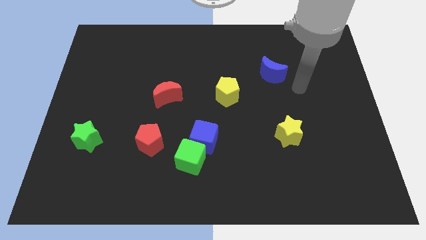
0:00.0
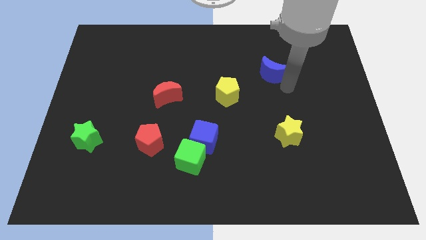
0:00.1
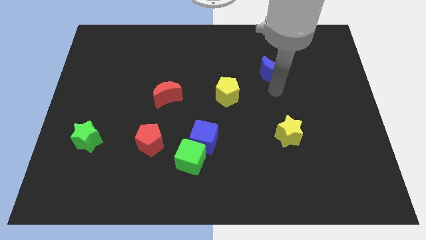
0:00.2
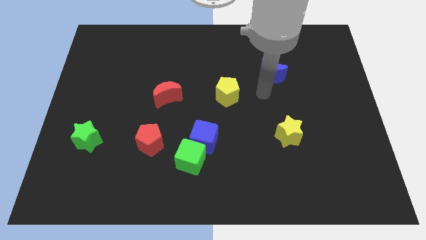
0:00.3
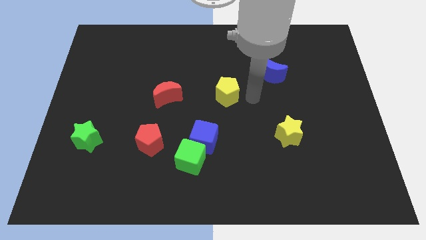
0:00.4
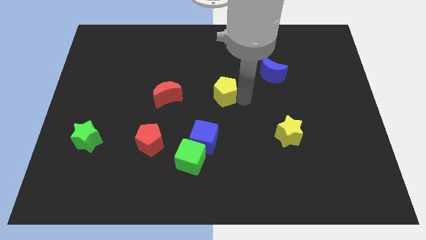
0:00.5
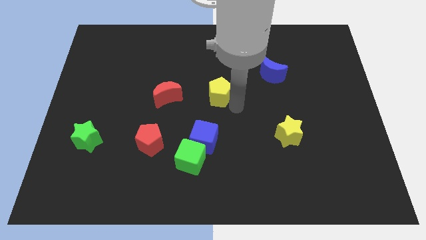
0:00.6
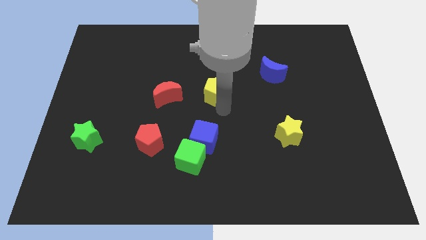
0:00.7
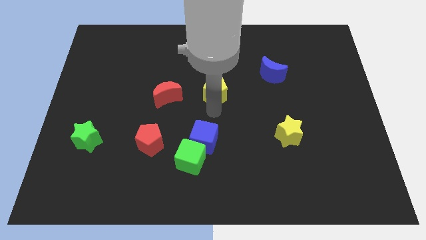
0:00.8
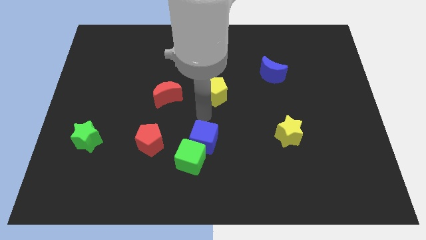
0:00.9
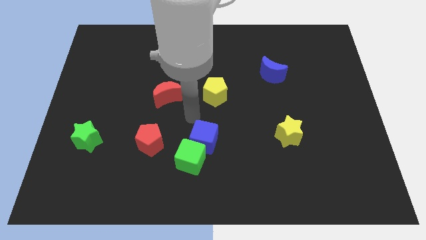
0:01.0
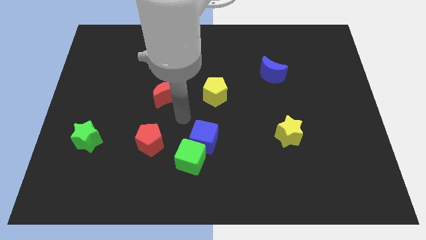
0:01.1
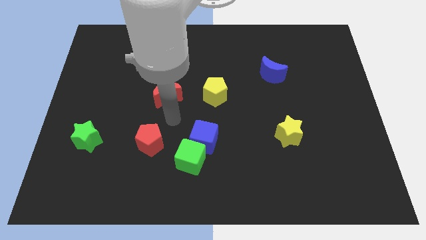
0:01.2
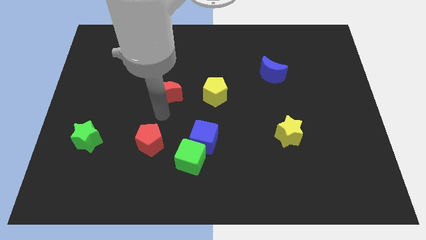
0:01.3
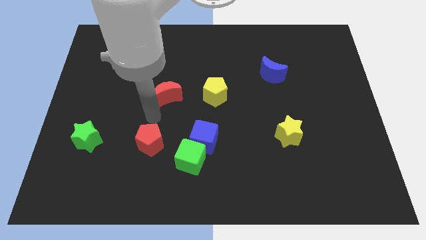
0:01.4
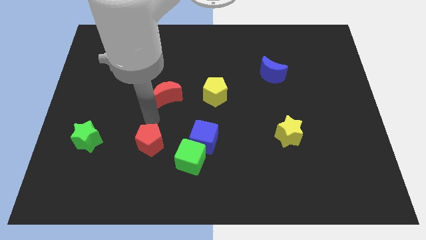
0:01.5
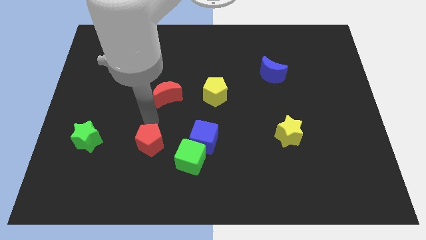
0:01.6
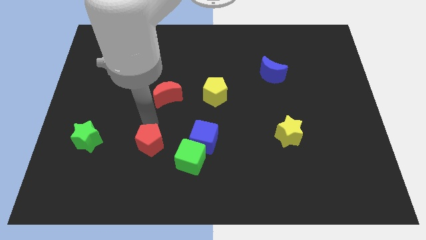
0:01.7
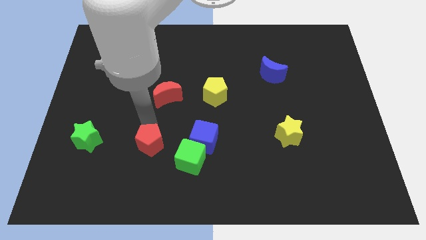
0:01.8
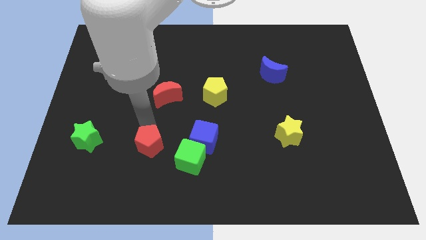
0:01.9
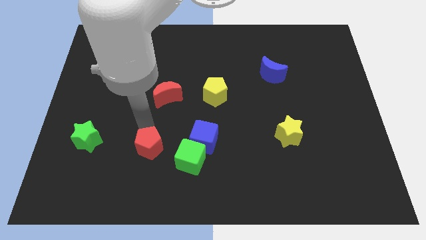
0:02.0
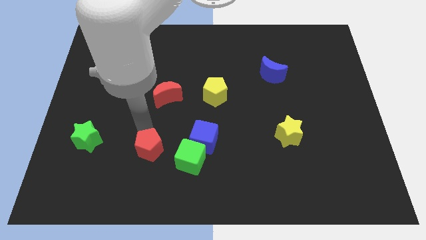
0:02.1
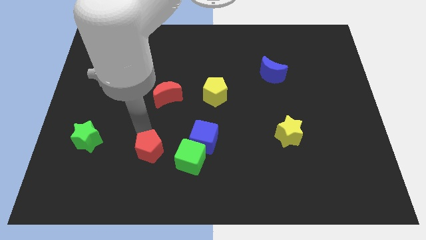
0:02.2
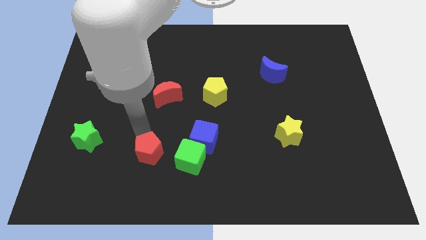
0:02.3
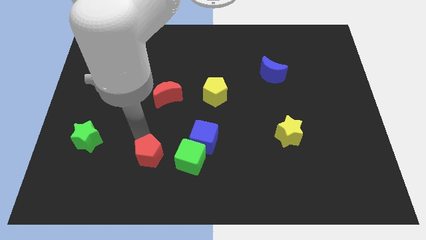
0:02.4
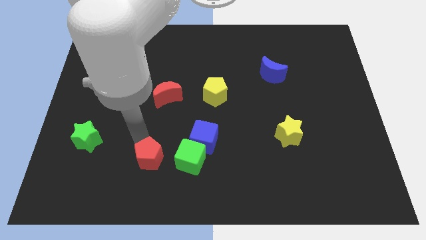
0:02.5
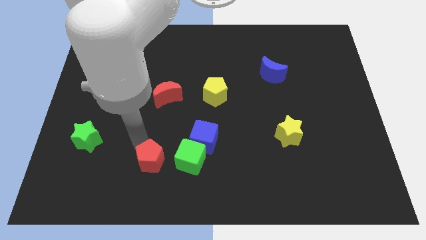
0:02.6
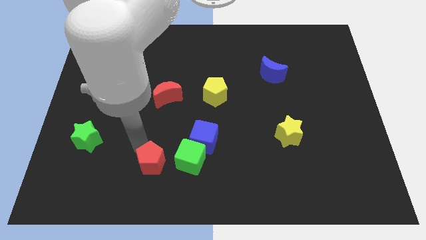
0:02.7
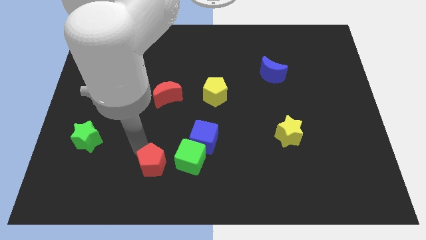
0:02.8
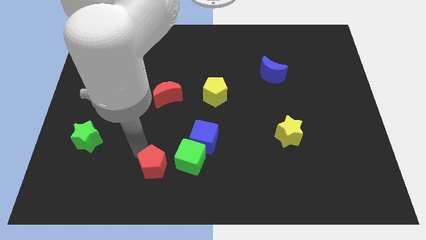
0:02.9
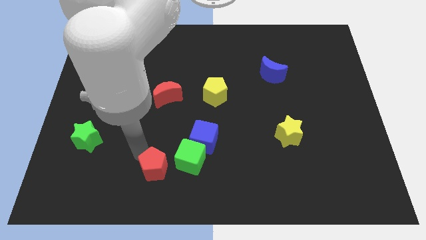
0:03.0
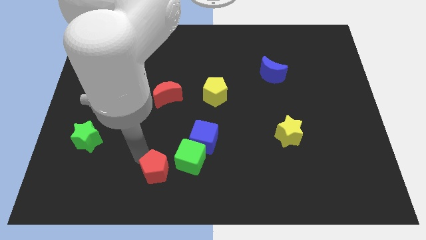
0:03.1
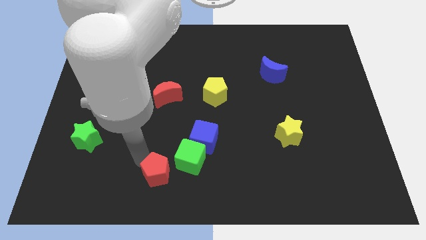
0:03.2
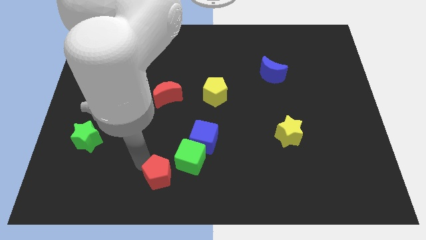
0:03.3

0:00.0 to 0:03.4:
push the red pentagon to the bottom side

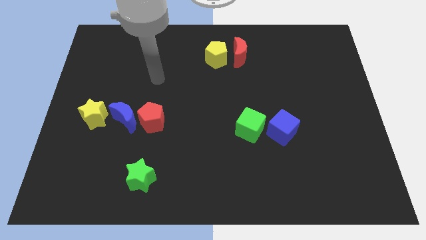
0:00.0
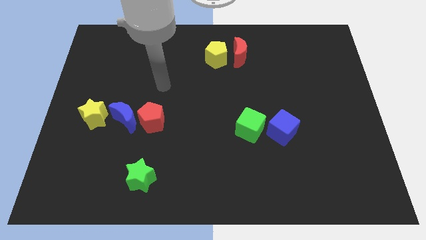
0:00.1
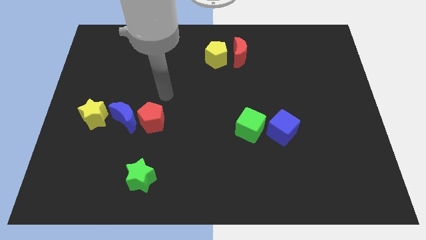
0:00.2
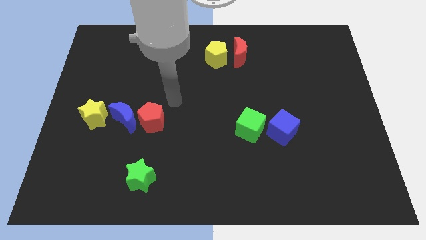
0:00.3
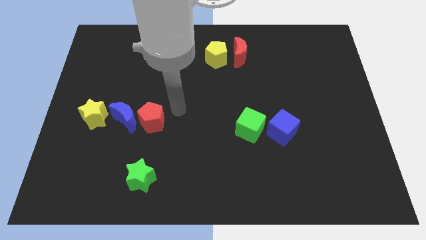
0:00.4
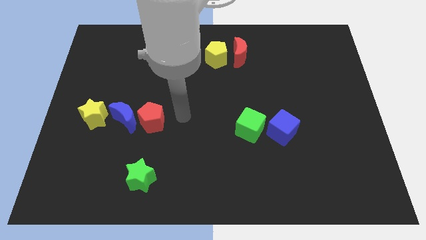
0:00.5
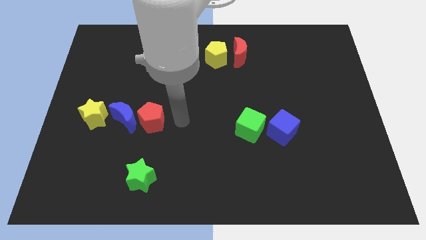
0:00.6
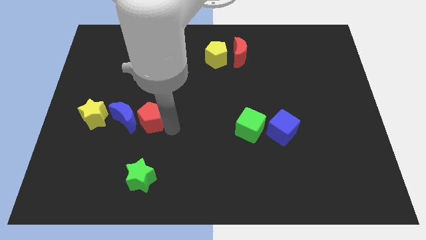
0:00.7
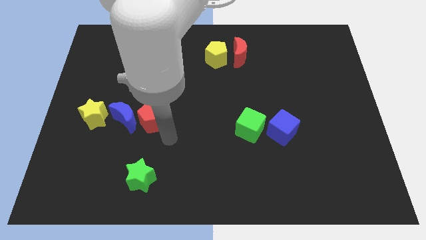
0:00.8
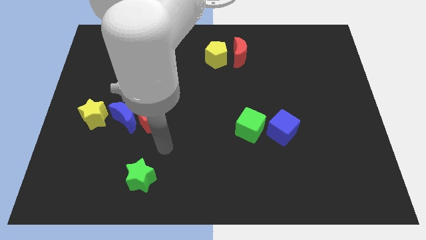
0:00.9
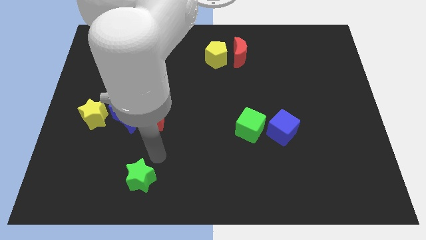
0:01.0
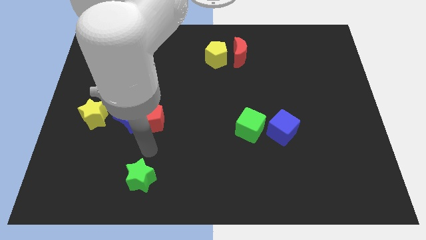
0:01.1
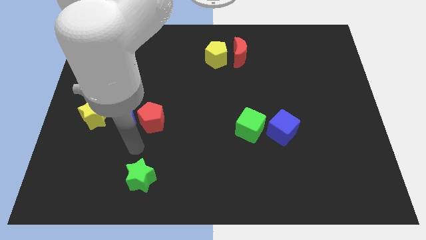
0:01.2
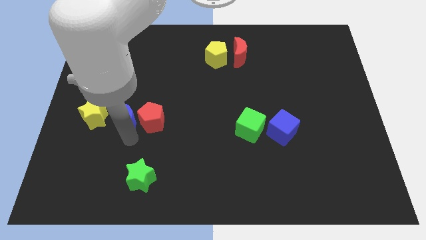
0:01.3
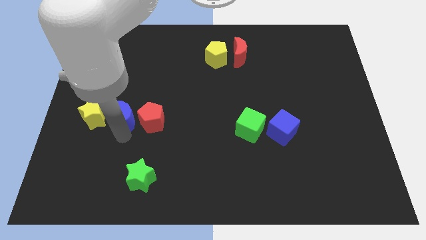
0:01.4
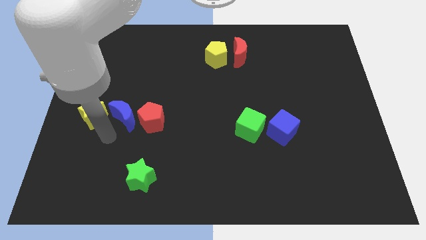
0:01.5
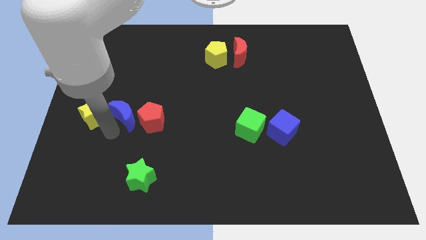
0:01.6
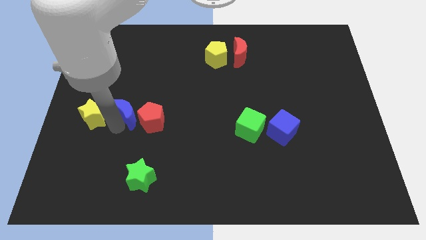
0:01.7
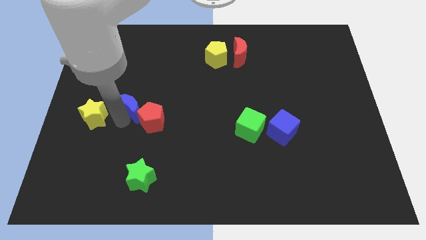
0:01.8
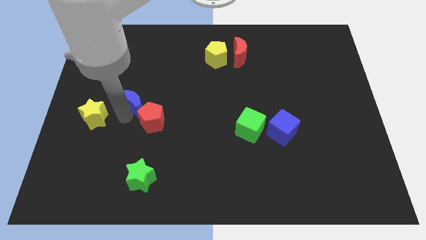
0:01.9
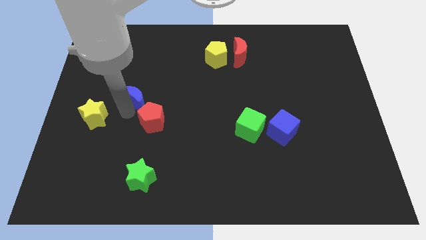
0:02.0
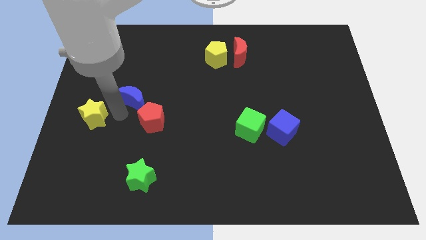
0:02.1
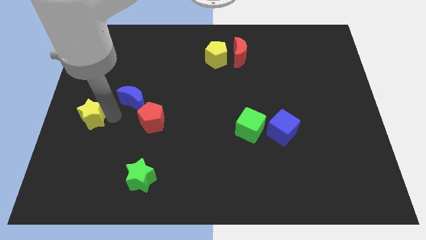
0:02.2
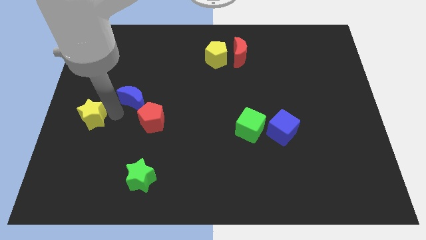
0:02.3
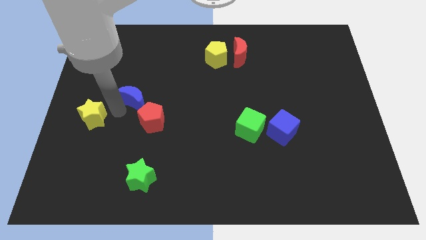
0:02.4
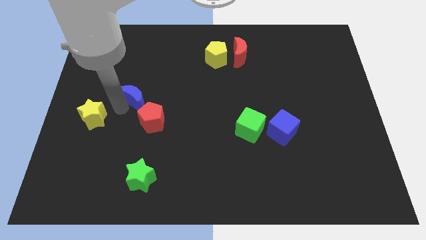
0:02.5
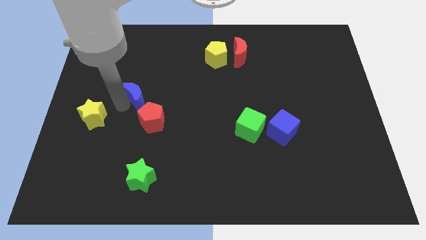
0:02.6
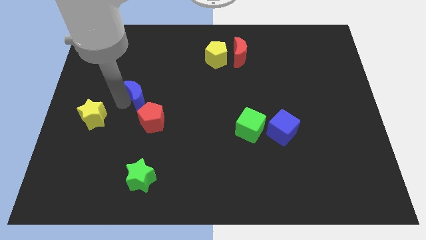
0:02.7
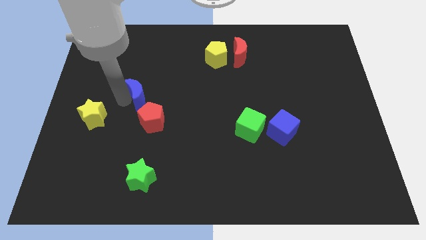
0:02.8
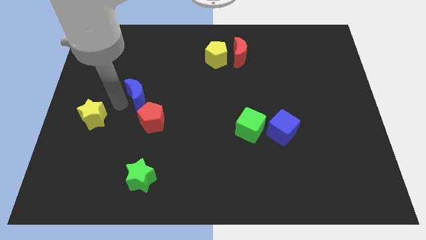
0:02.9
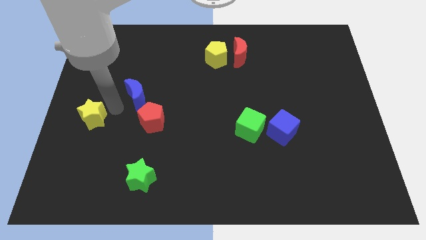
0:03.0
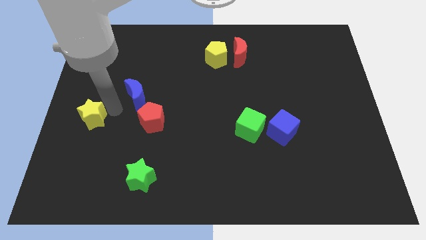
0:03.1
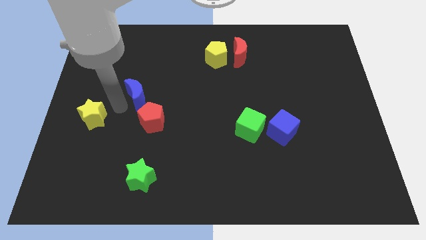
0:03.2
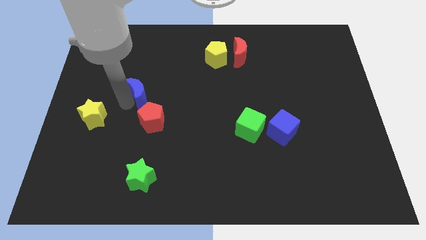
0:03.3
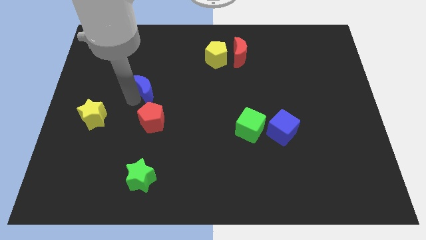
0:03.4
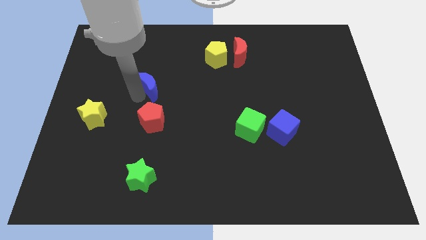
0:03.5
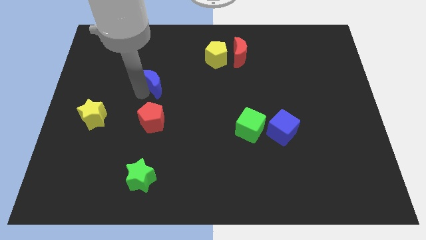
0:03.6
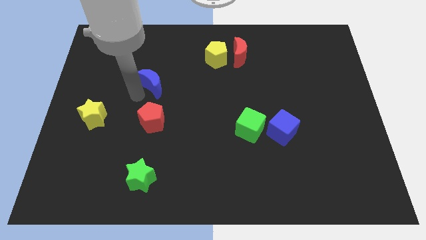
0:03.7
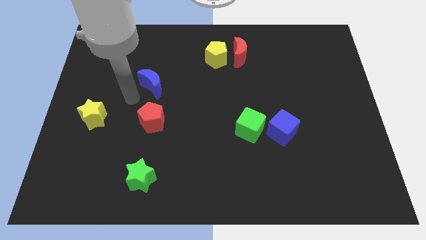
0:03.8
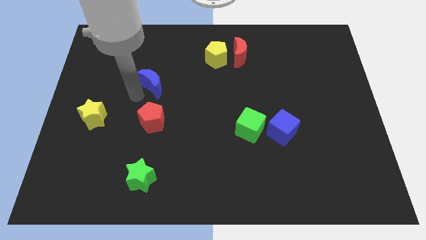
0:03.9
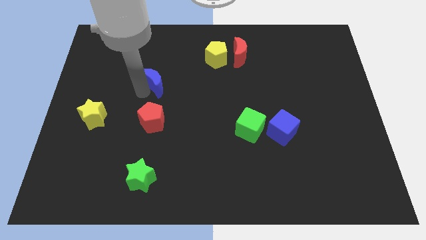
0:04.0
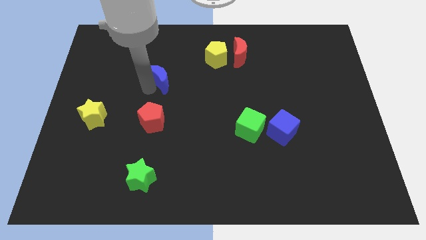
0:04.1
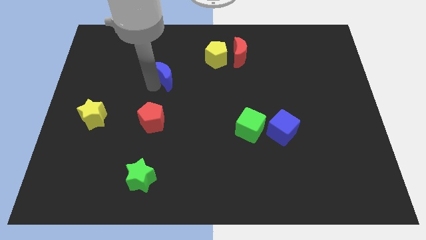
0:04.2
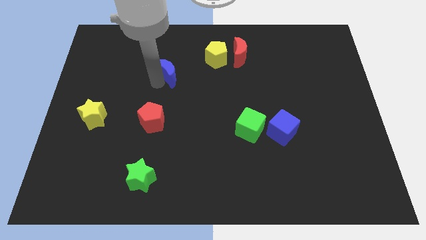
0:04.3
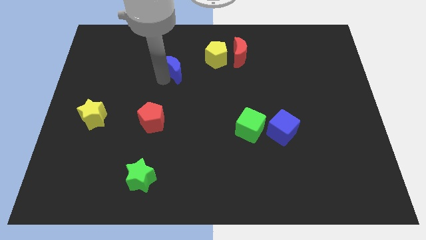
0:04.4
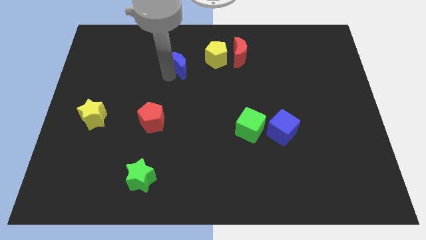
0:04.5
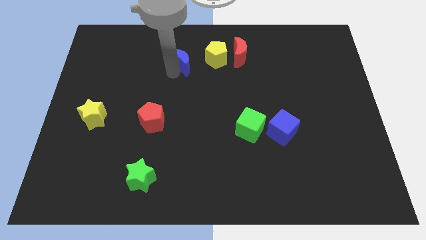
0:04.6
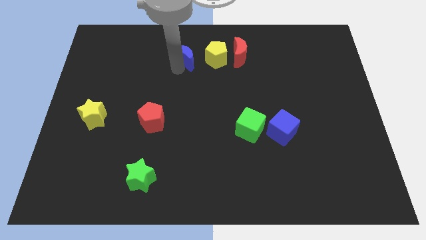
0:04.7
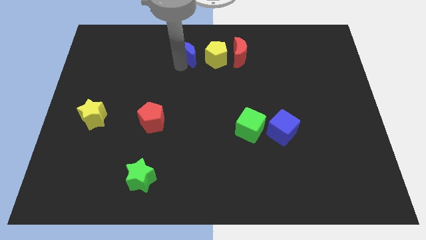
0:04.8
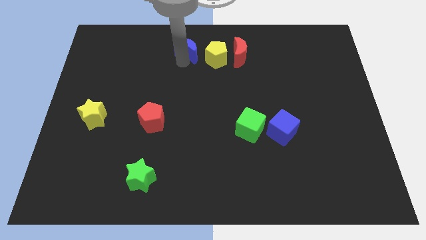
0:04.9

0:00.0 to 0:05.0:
push the blue moon to the top side
